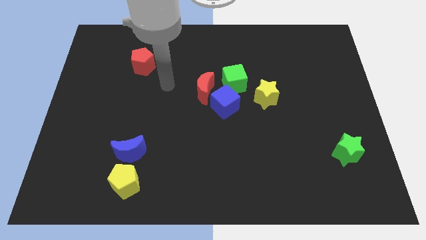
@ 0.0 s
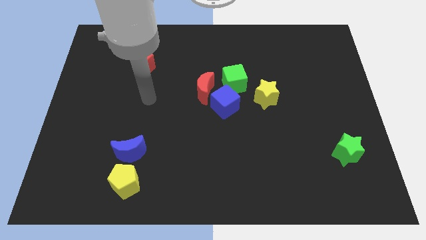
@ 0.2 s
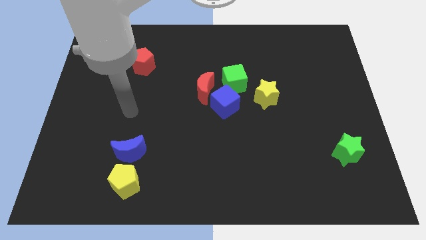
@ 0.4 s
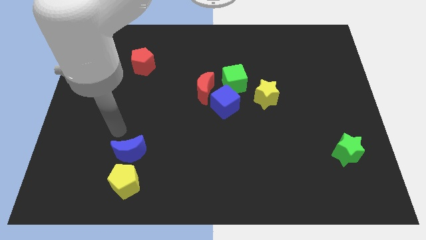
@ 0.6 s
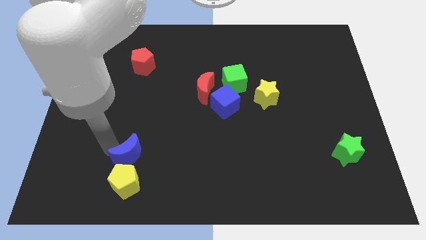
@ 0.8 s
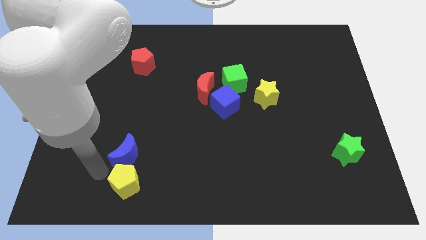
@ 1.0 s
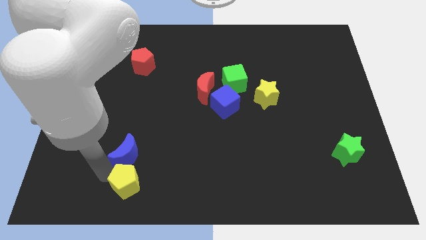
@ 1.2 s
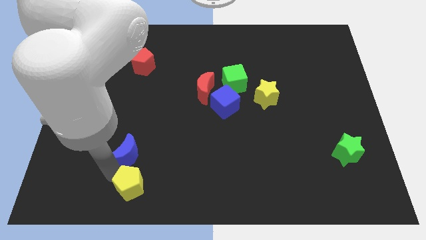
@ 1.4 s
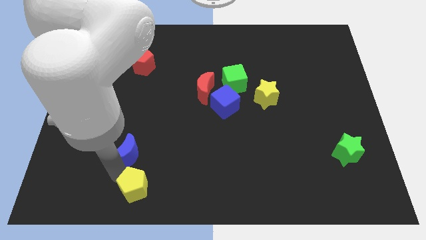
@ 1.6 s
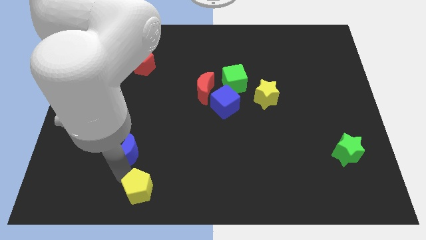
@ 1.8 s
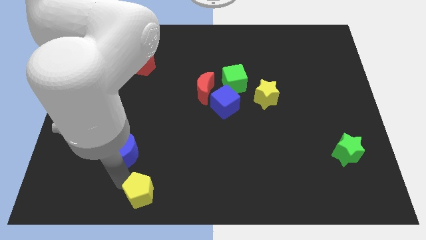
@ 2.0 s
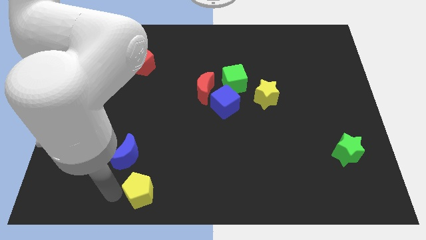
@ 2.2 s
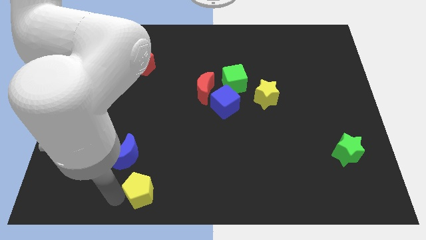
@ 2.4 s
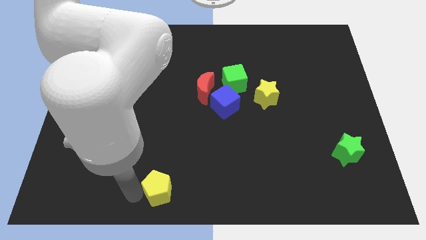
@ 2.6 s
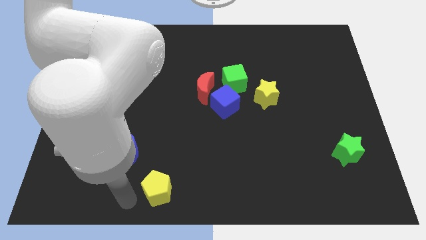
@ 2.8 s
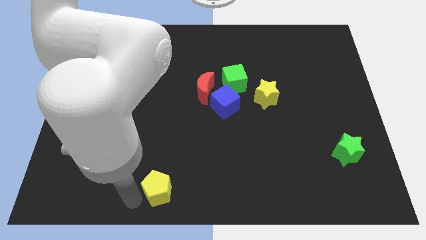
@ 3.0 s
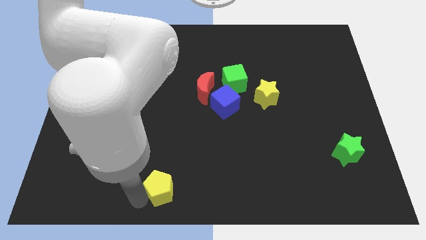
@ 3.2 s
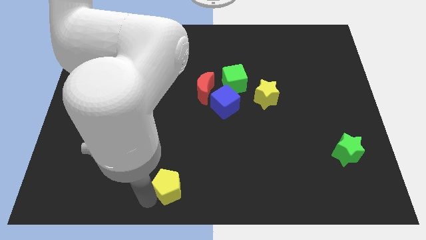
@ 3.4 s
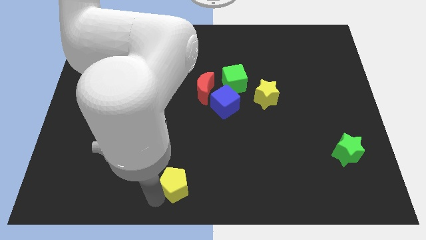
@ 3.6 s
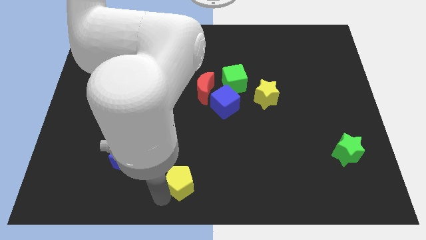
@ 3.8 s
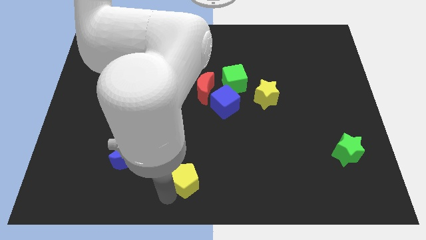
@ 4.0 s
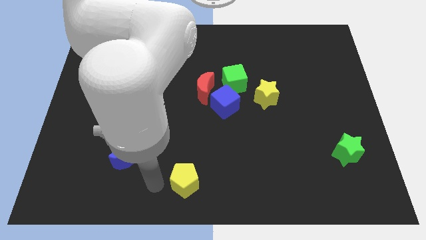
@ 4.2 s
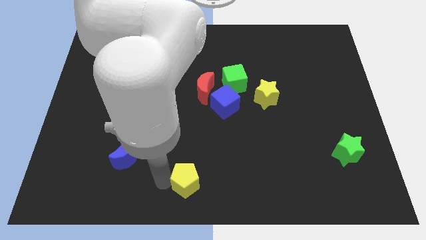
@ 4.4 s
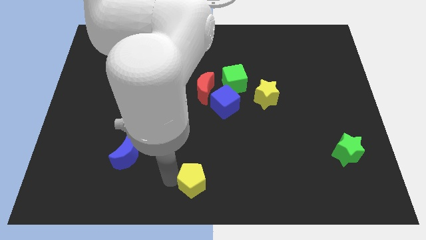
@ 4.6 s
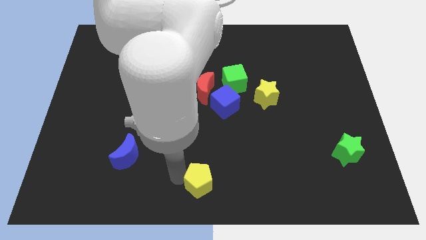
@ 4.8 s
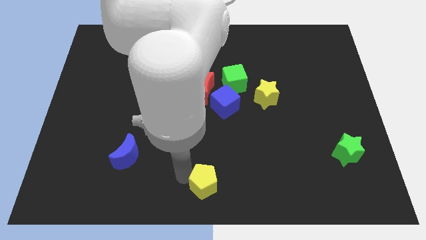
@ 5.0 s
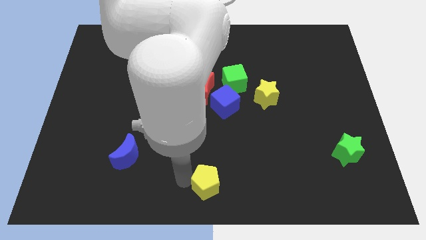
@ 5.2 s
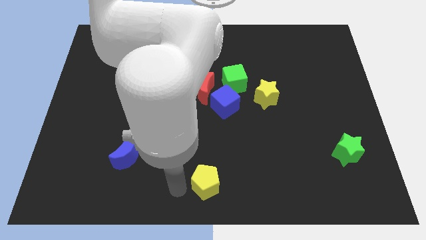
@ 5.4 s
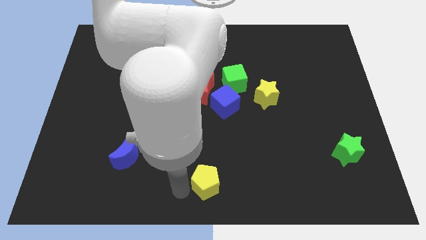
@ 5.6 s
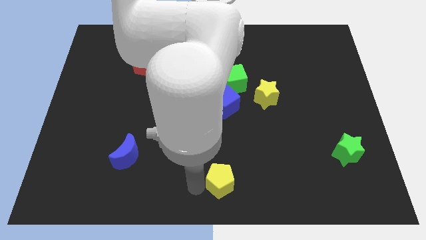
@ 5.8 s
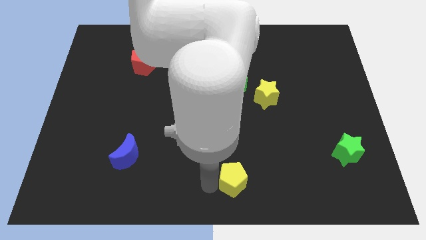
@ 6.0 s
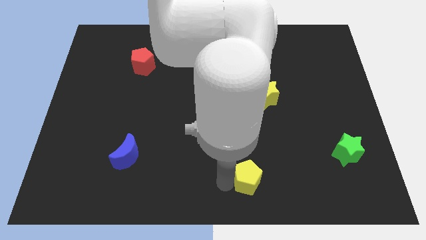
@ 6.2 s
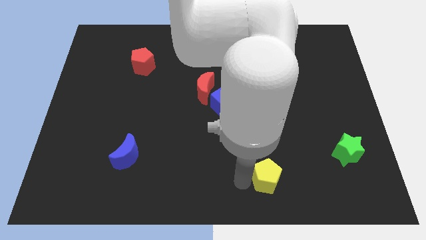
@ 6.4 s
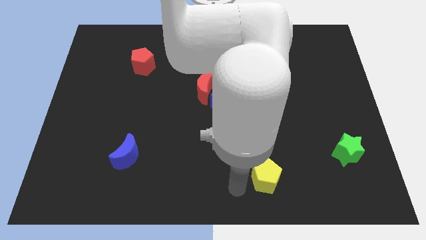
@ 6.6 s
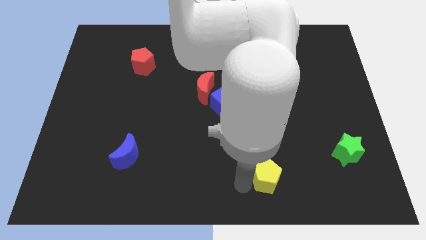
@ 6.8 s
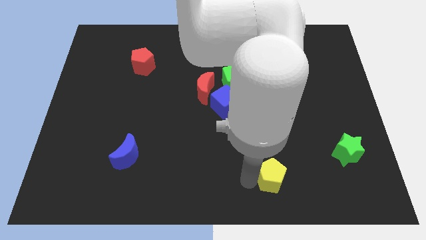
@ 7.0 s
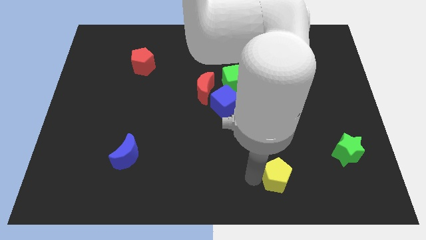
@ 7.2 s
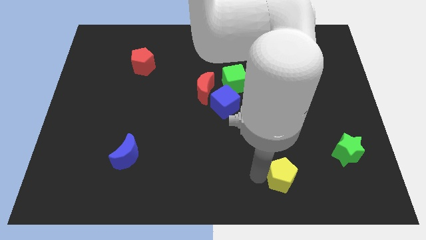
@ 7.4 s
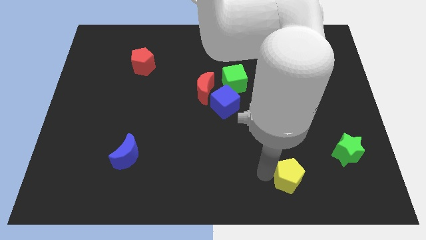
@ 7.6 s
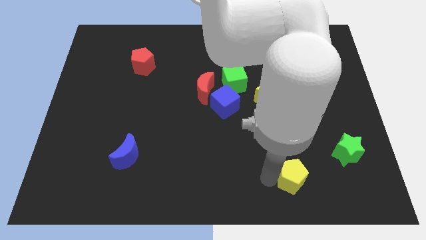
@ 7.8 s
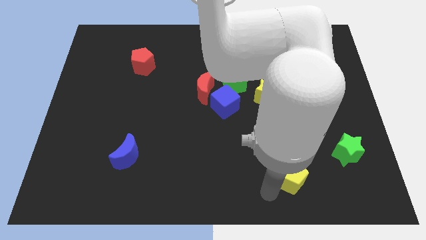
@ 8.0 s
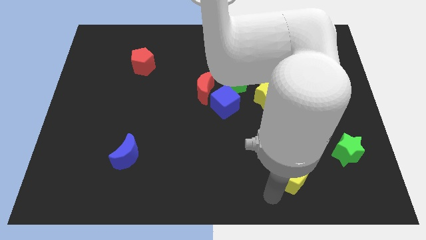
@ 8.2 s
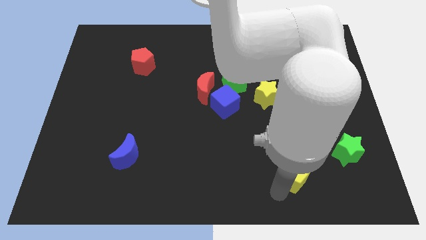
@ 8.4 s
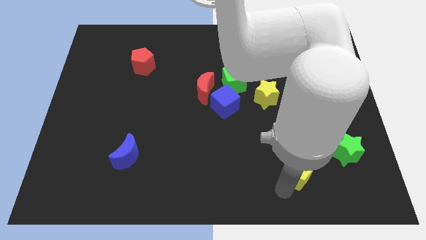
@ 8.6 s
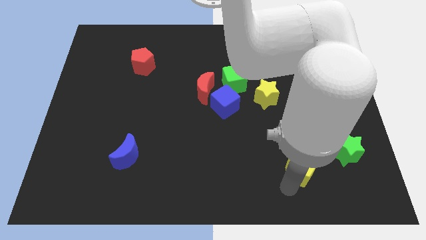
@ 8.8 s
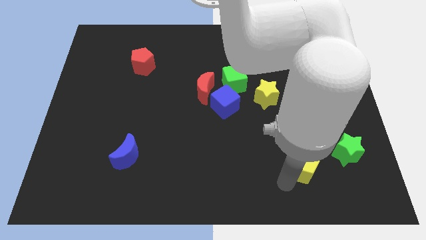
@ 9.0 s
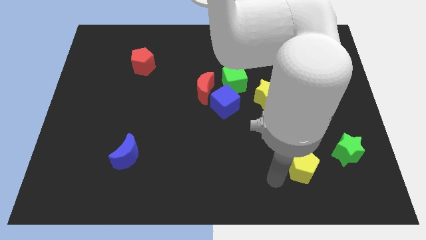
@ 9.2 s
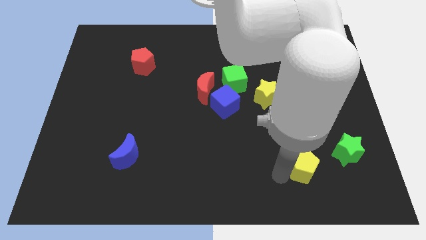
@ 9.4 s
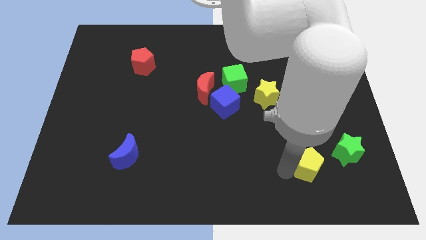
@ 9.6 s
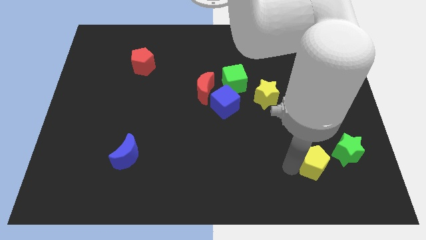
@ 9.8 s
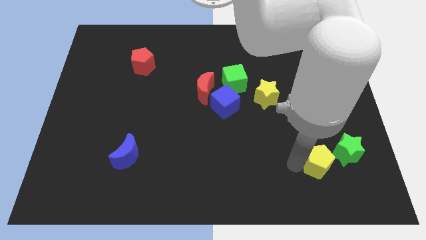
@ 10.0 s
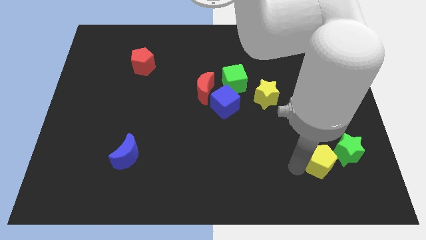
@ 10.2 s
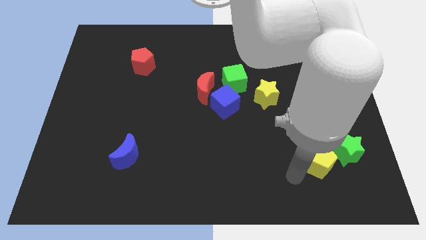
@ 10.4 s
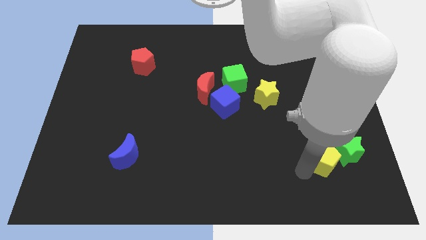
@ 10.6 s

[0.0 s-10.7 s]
slide the yellow pentagon towards the green star

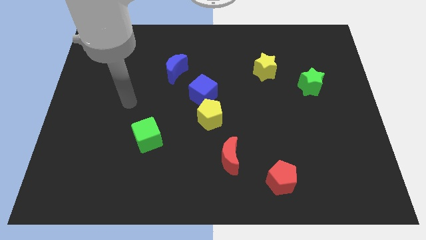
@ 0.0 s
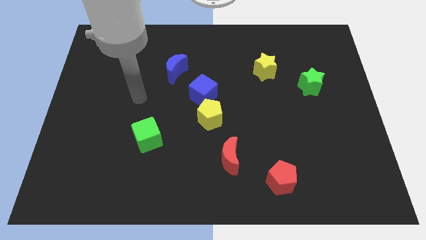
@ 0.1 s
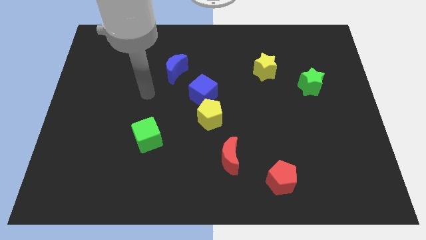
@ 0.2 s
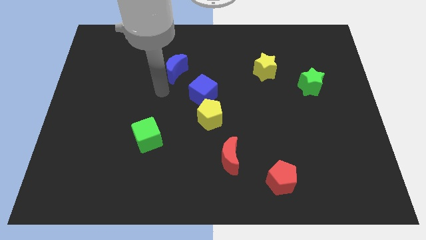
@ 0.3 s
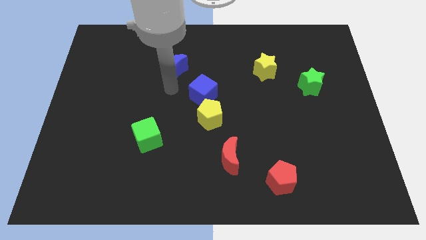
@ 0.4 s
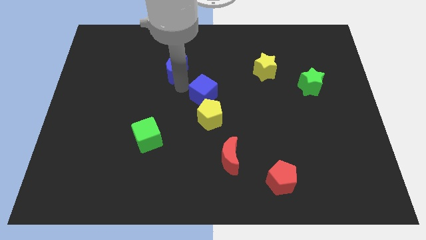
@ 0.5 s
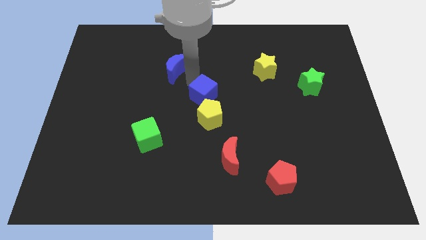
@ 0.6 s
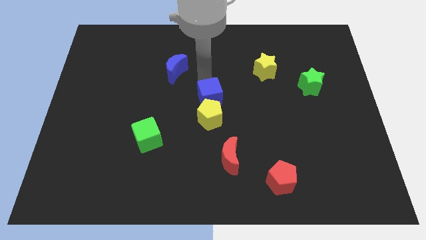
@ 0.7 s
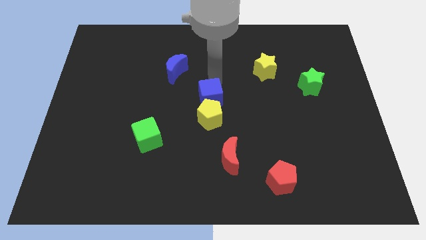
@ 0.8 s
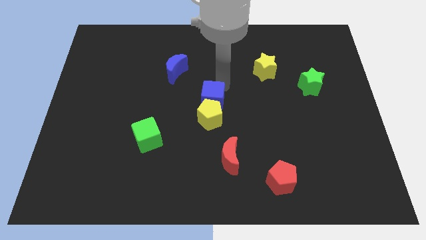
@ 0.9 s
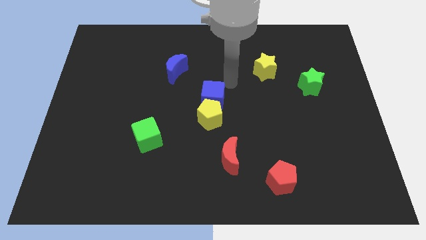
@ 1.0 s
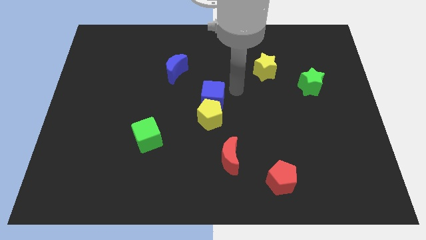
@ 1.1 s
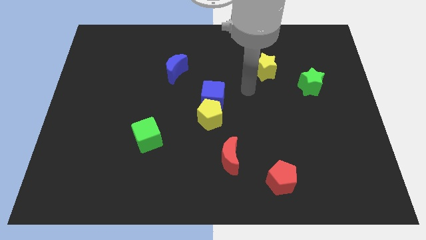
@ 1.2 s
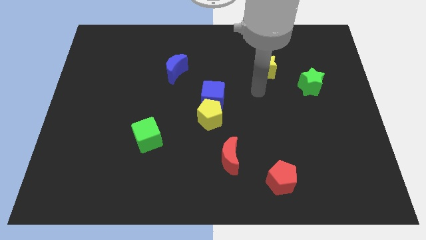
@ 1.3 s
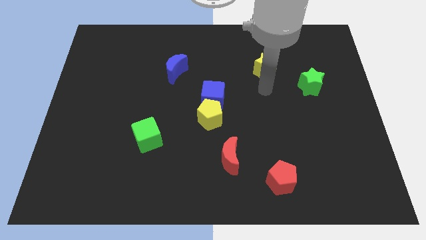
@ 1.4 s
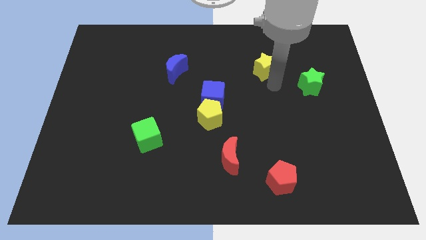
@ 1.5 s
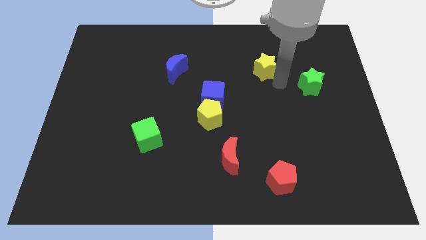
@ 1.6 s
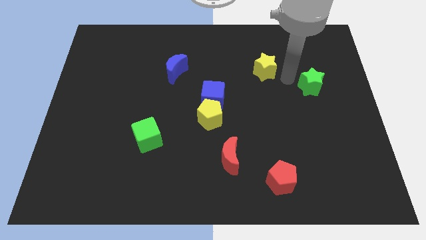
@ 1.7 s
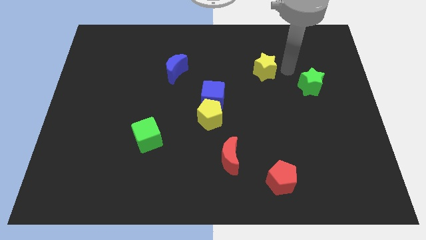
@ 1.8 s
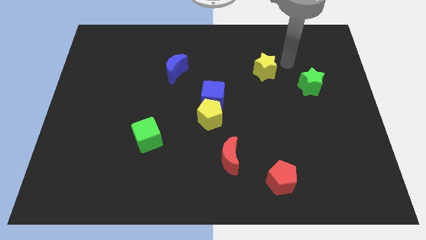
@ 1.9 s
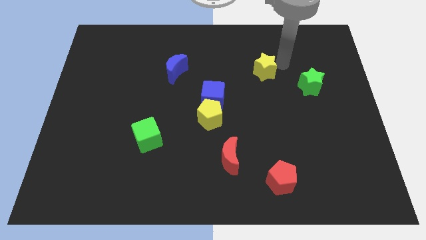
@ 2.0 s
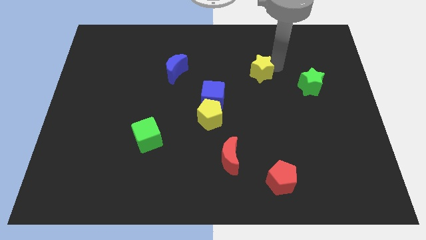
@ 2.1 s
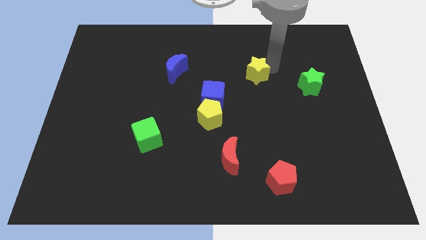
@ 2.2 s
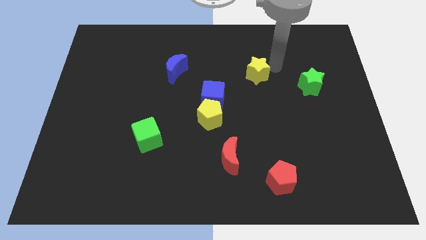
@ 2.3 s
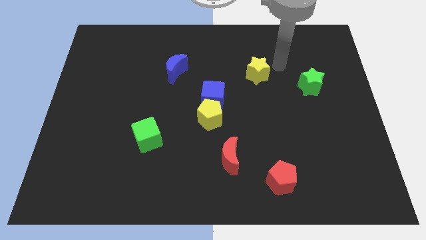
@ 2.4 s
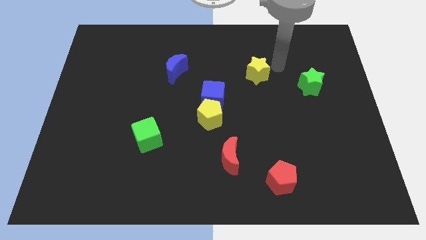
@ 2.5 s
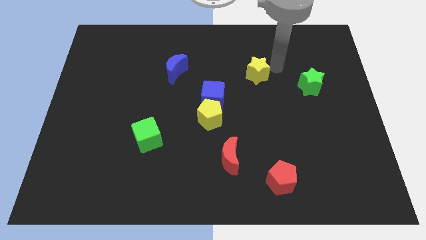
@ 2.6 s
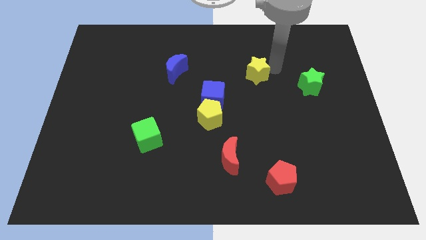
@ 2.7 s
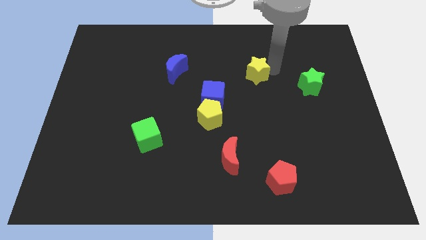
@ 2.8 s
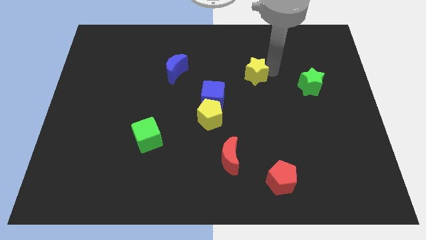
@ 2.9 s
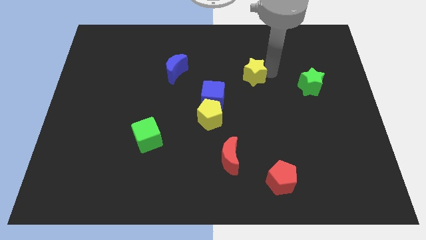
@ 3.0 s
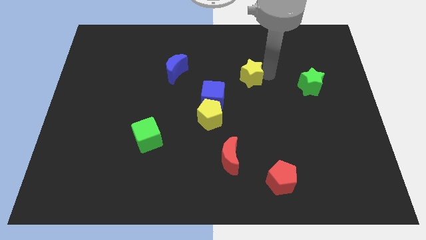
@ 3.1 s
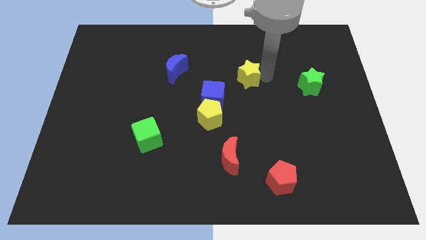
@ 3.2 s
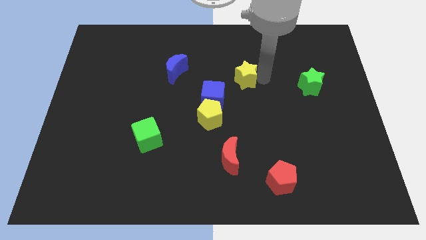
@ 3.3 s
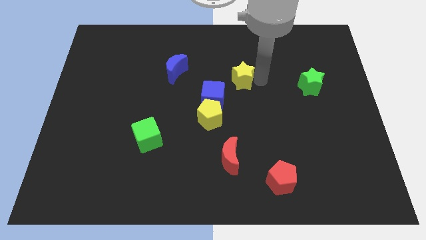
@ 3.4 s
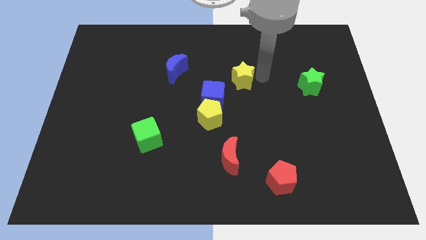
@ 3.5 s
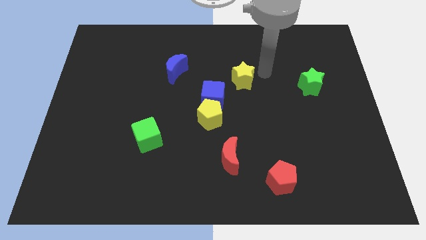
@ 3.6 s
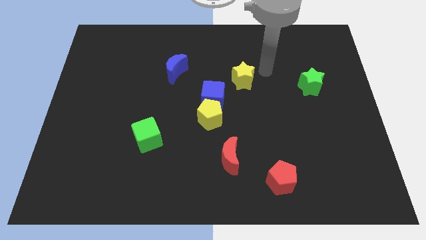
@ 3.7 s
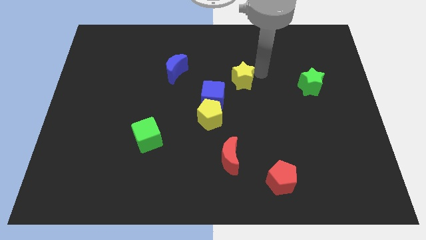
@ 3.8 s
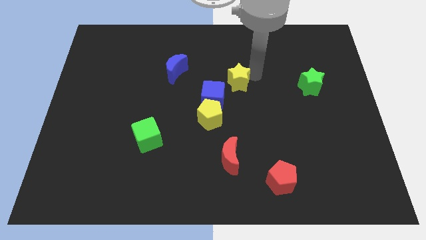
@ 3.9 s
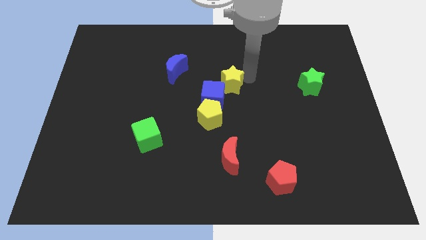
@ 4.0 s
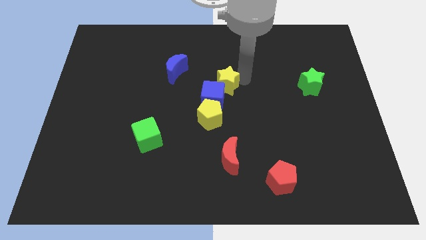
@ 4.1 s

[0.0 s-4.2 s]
move the yellow star towards the blue cube
